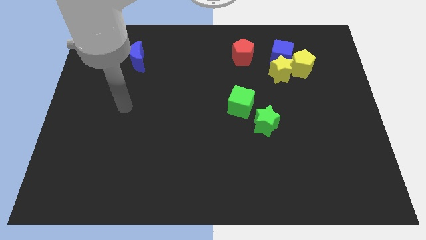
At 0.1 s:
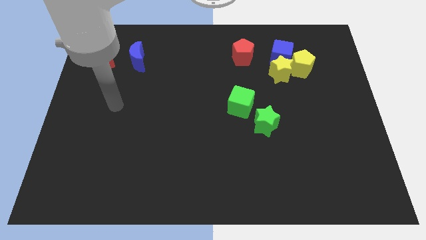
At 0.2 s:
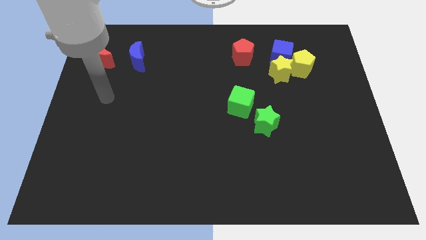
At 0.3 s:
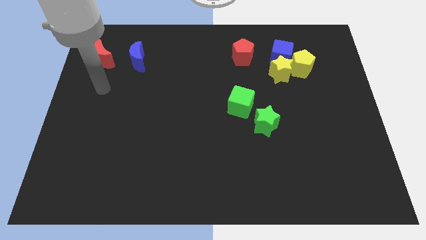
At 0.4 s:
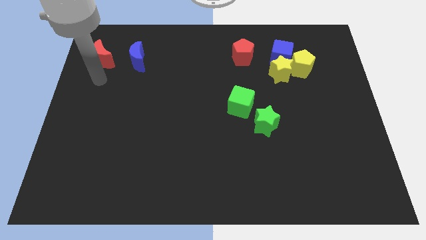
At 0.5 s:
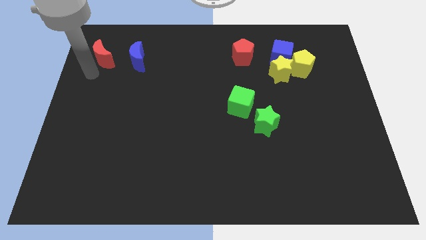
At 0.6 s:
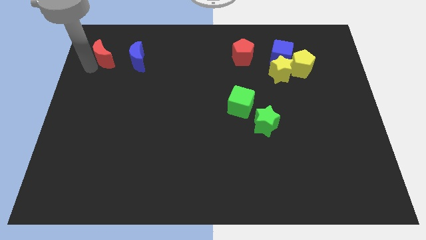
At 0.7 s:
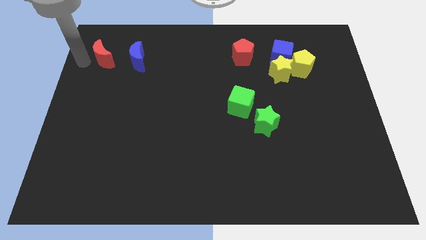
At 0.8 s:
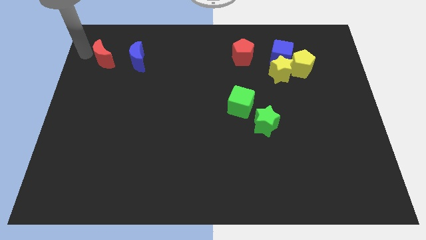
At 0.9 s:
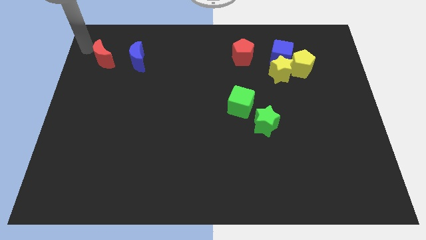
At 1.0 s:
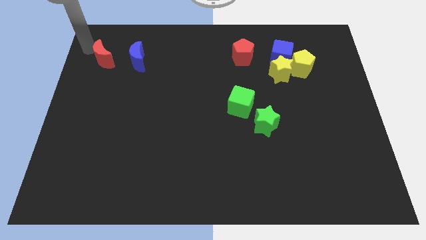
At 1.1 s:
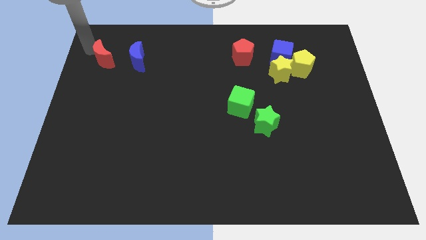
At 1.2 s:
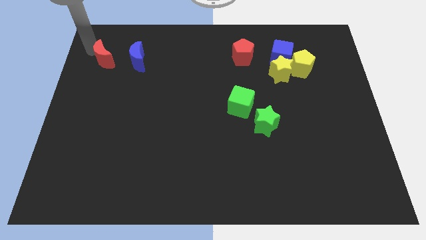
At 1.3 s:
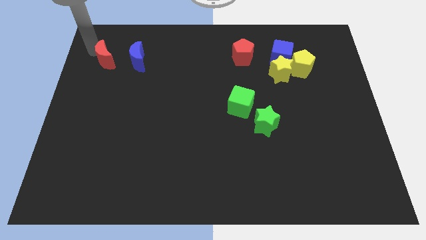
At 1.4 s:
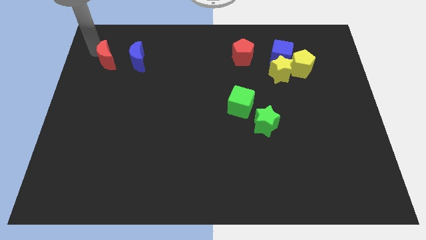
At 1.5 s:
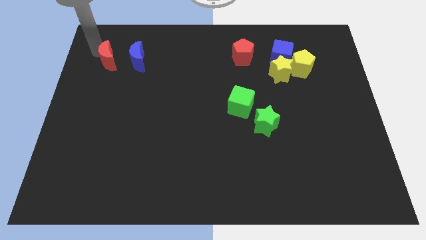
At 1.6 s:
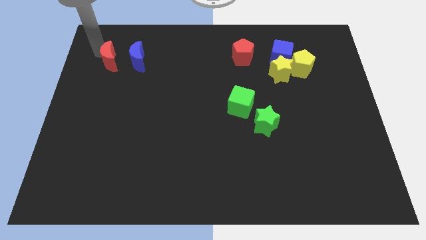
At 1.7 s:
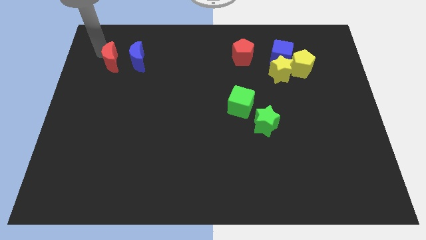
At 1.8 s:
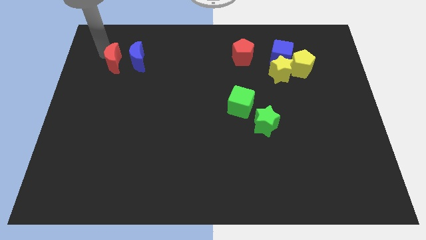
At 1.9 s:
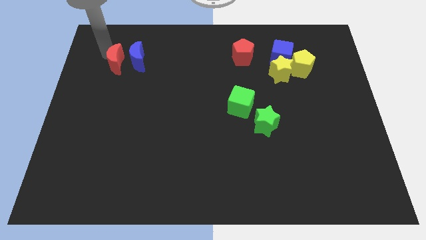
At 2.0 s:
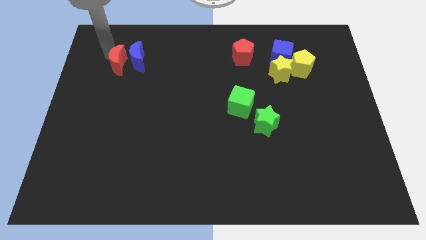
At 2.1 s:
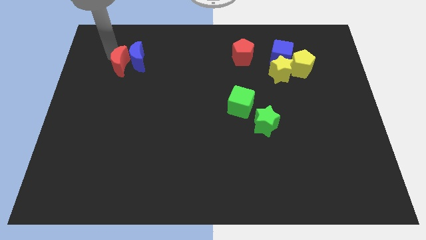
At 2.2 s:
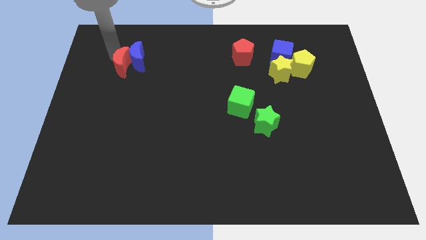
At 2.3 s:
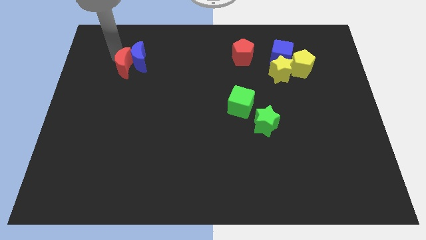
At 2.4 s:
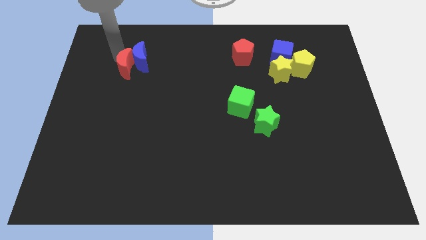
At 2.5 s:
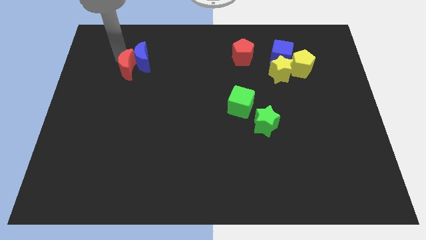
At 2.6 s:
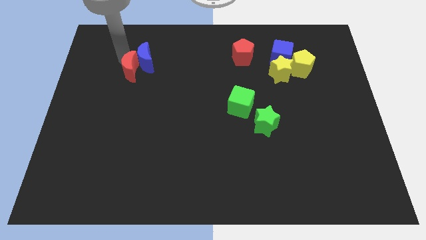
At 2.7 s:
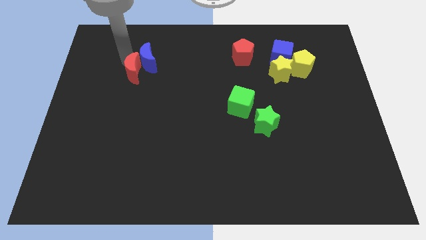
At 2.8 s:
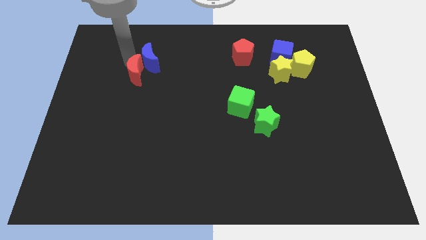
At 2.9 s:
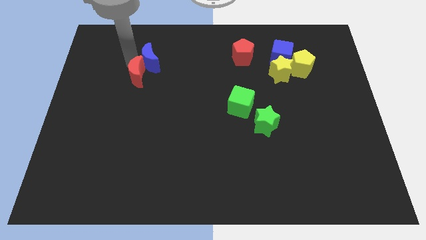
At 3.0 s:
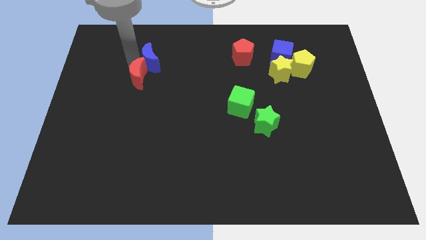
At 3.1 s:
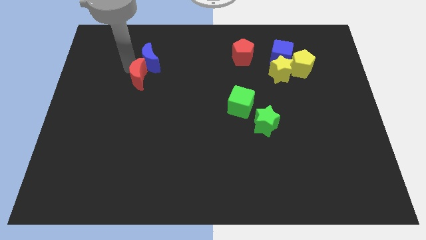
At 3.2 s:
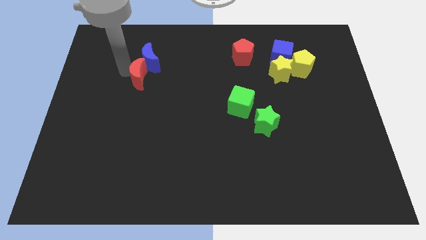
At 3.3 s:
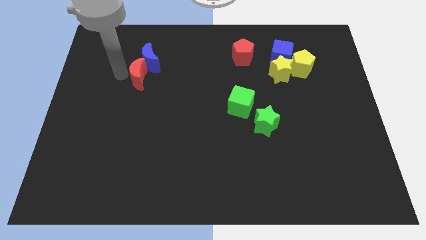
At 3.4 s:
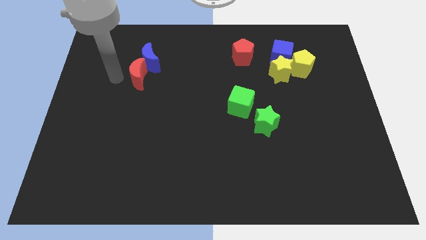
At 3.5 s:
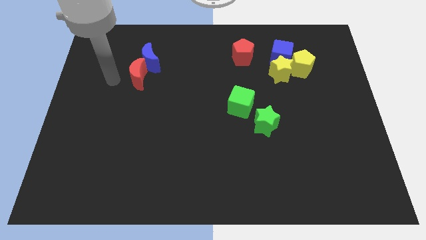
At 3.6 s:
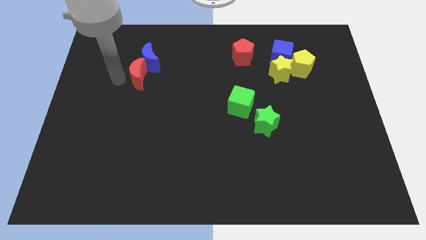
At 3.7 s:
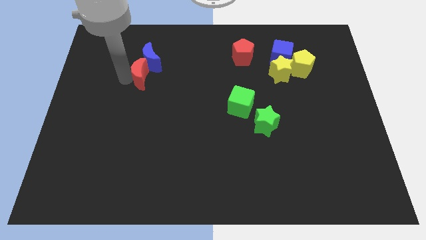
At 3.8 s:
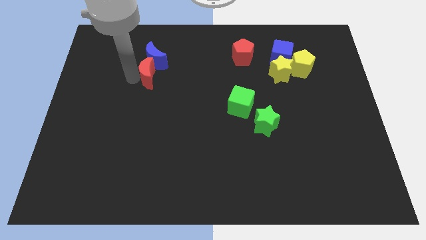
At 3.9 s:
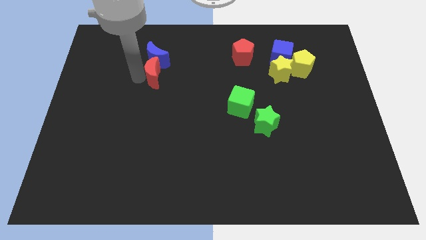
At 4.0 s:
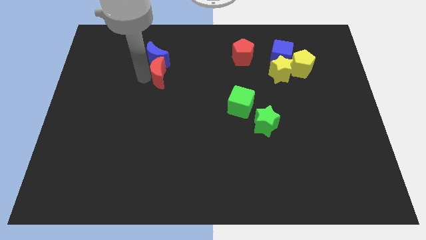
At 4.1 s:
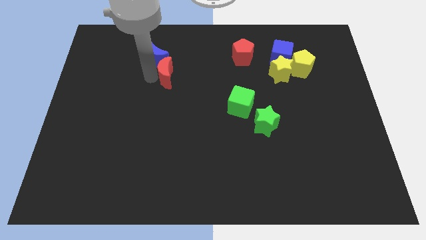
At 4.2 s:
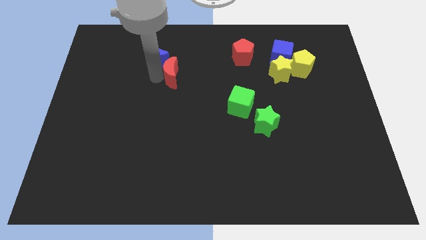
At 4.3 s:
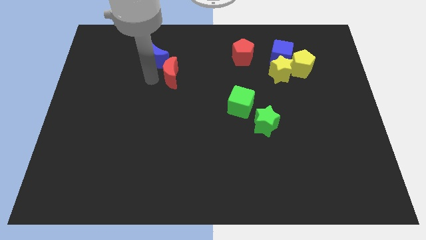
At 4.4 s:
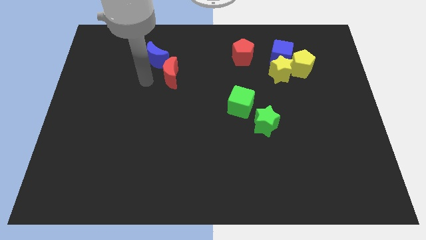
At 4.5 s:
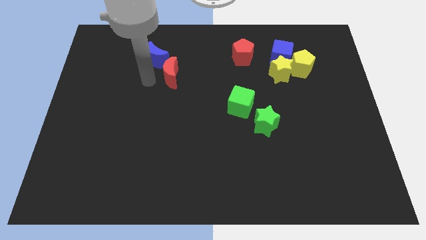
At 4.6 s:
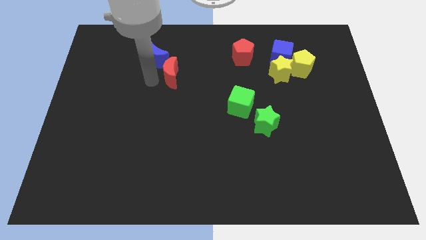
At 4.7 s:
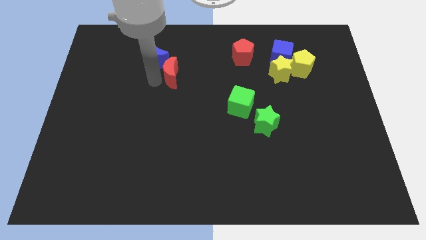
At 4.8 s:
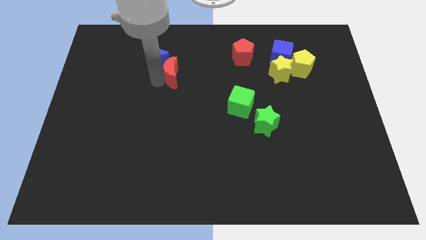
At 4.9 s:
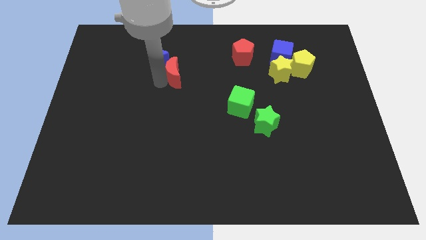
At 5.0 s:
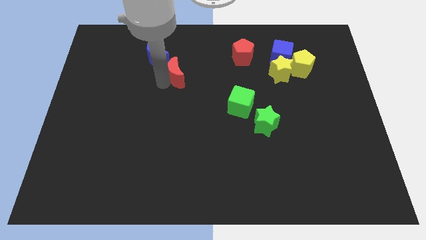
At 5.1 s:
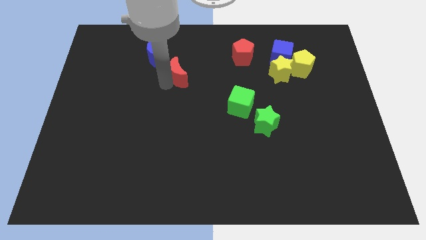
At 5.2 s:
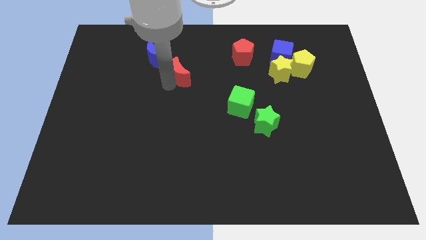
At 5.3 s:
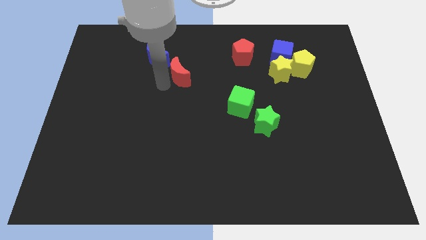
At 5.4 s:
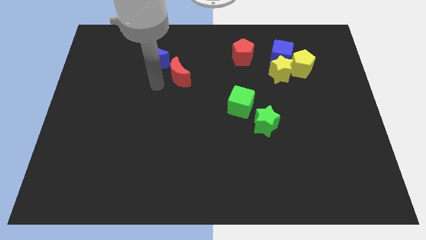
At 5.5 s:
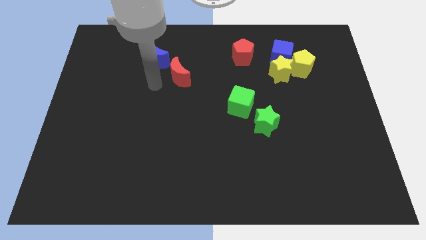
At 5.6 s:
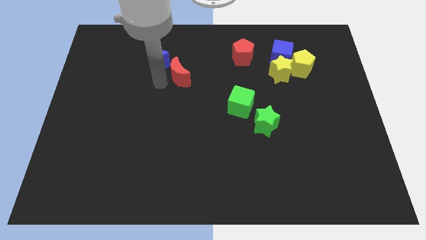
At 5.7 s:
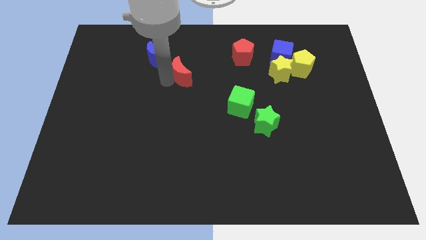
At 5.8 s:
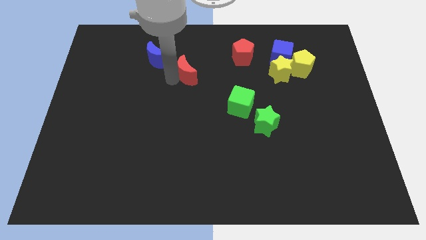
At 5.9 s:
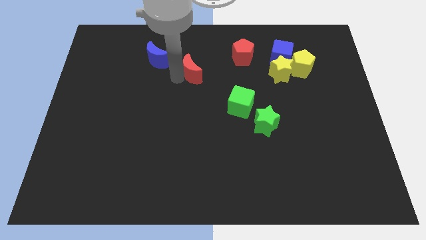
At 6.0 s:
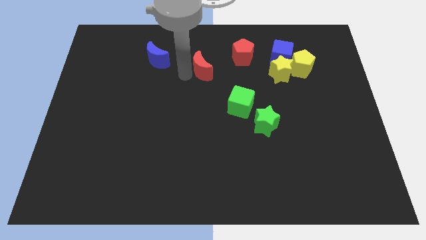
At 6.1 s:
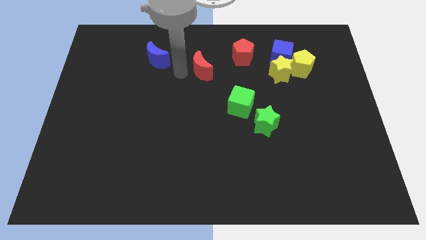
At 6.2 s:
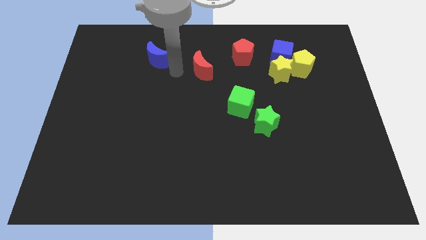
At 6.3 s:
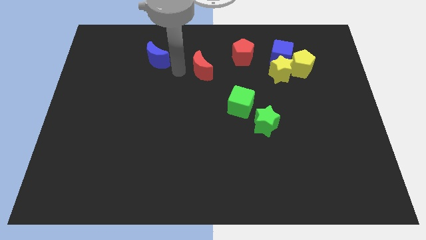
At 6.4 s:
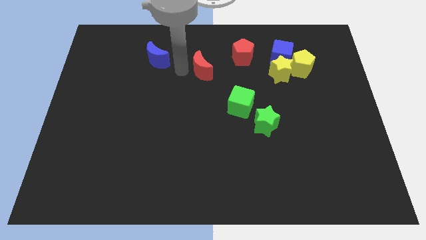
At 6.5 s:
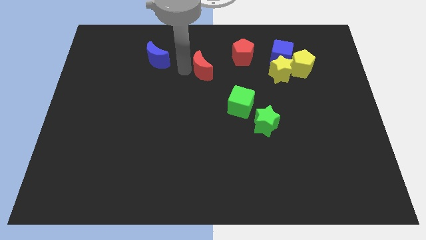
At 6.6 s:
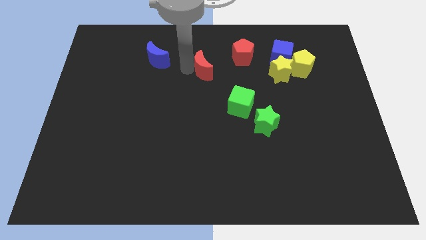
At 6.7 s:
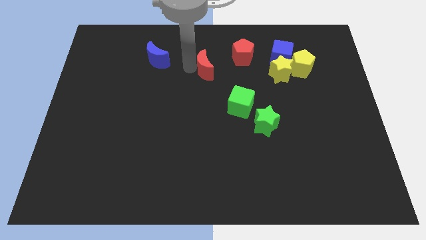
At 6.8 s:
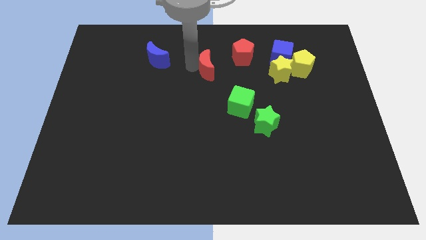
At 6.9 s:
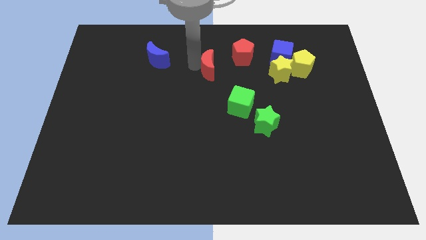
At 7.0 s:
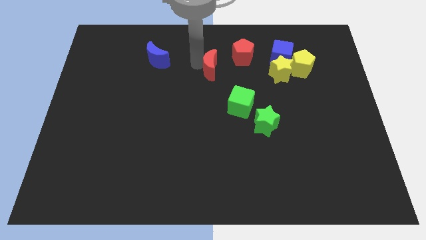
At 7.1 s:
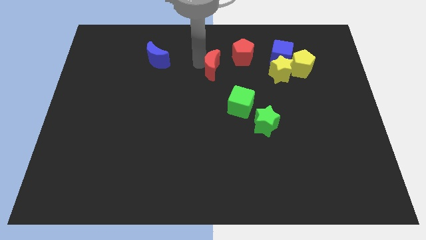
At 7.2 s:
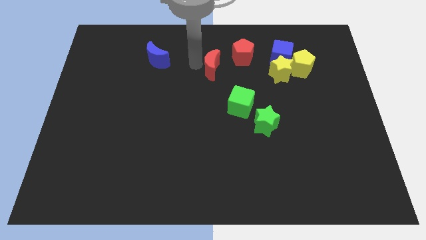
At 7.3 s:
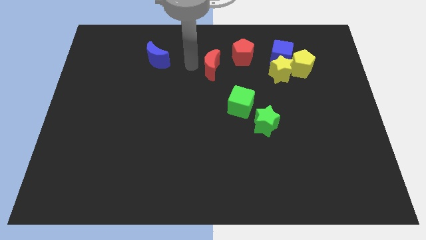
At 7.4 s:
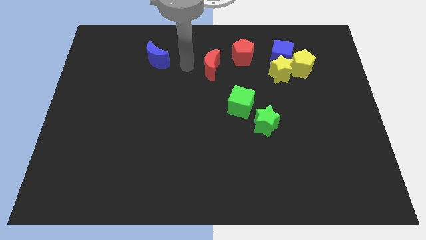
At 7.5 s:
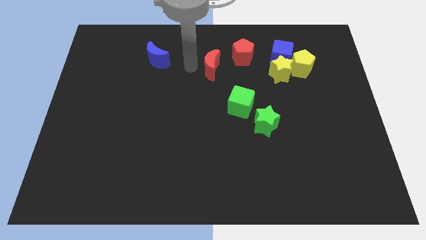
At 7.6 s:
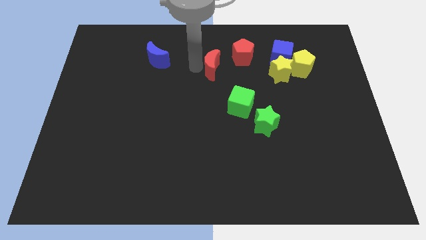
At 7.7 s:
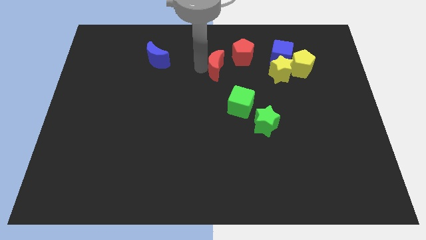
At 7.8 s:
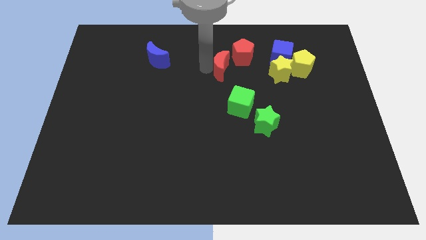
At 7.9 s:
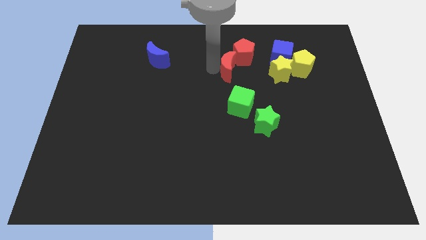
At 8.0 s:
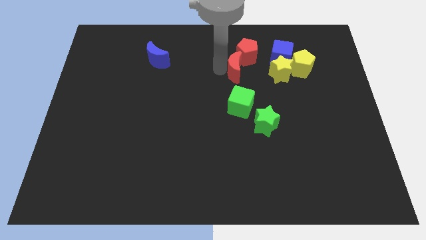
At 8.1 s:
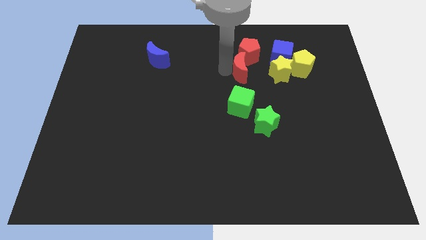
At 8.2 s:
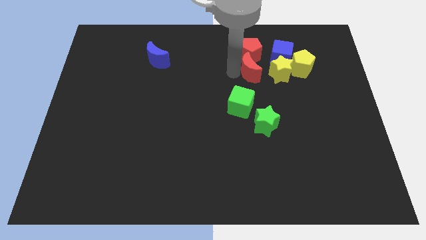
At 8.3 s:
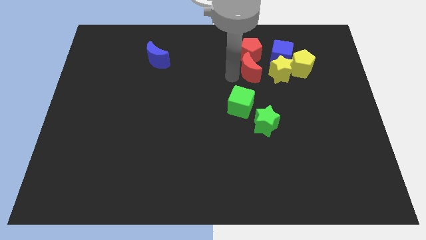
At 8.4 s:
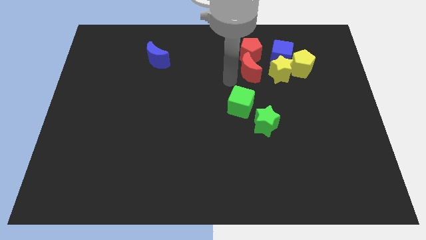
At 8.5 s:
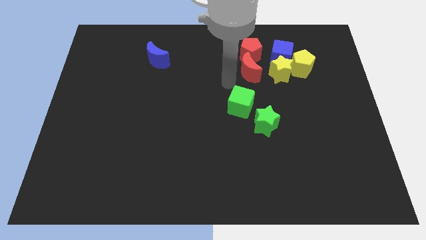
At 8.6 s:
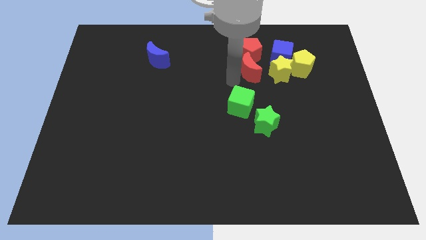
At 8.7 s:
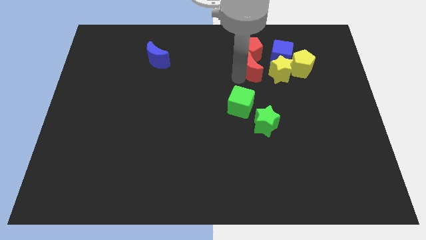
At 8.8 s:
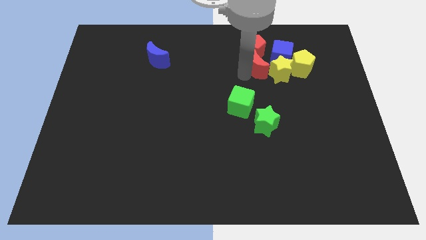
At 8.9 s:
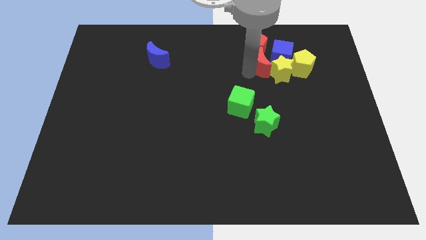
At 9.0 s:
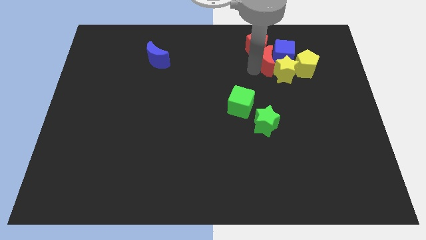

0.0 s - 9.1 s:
put the red moon towards the blue cube
